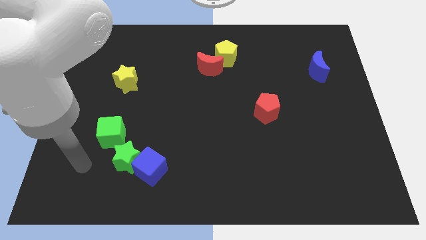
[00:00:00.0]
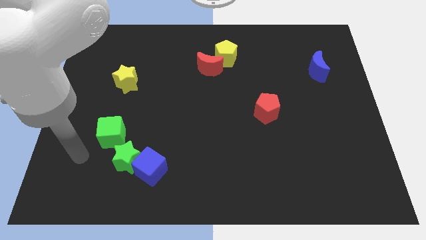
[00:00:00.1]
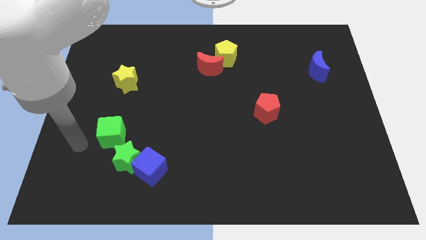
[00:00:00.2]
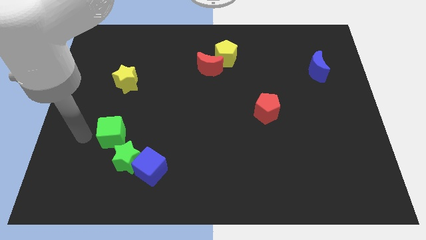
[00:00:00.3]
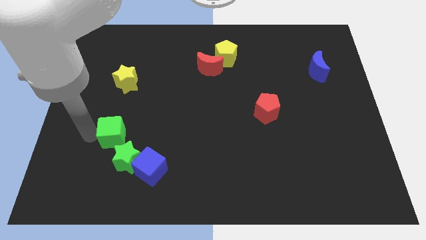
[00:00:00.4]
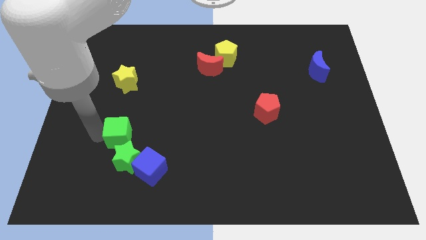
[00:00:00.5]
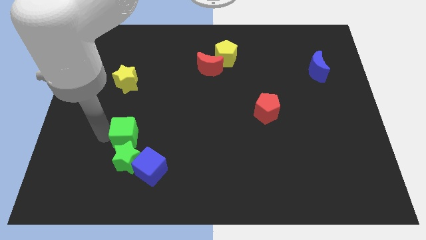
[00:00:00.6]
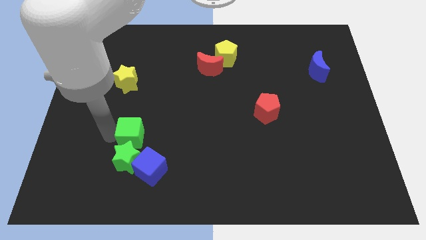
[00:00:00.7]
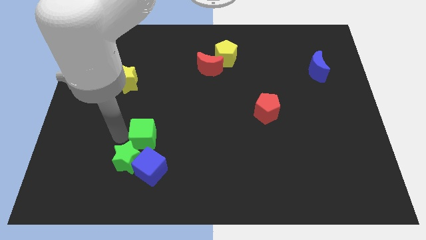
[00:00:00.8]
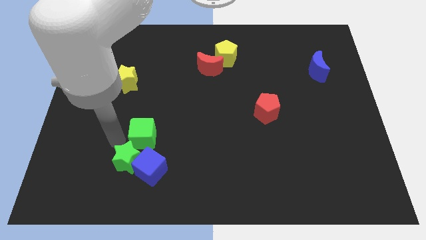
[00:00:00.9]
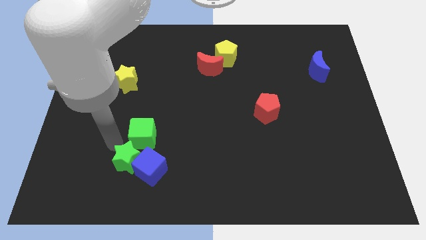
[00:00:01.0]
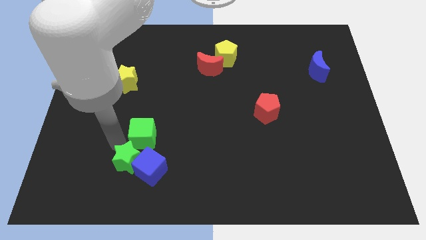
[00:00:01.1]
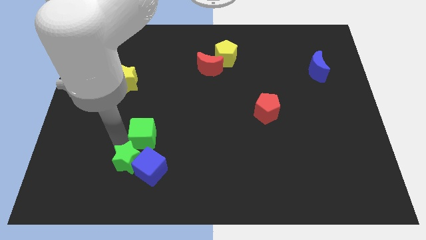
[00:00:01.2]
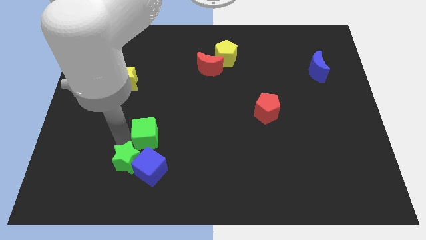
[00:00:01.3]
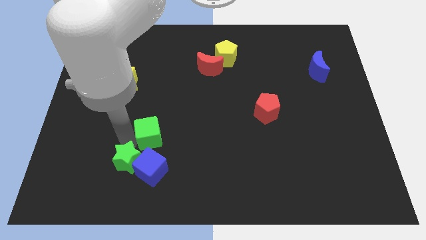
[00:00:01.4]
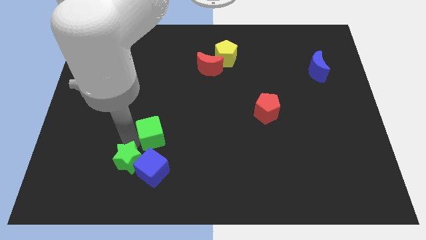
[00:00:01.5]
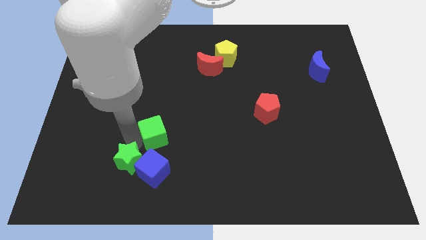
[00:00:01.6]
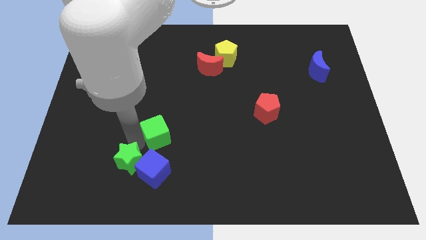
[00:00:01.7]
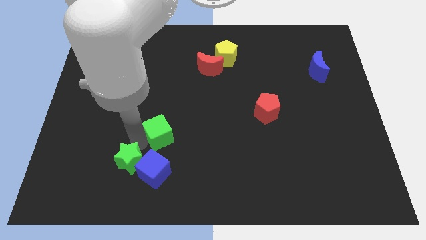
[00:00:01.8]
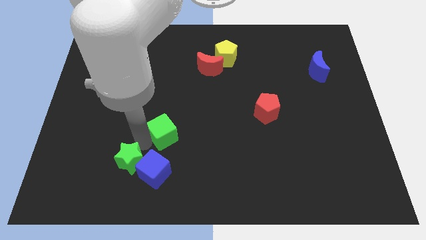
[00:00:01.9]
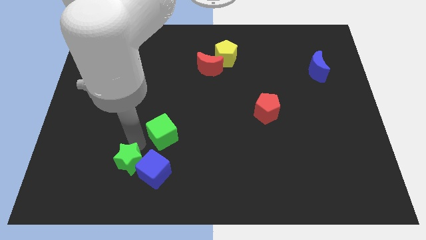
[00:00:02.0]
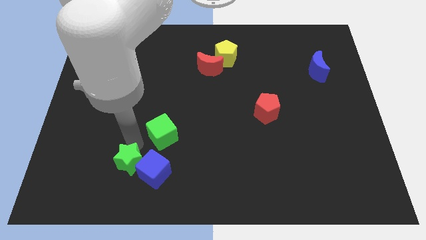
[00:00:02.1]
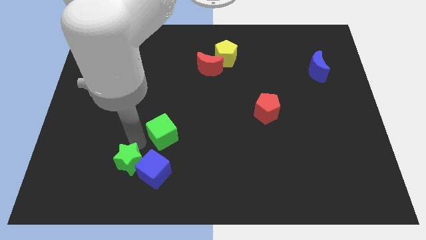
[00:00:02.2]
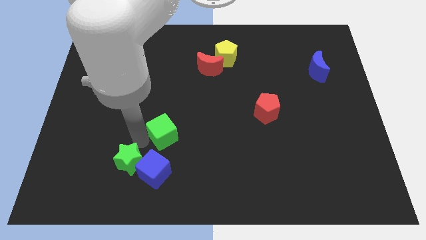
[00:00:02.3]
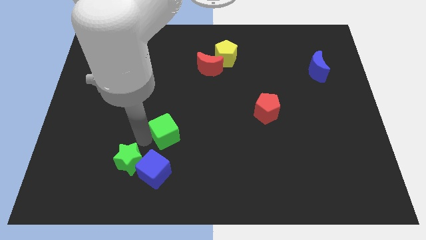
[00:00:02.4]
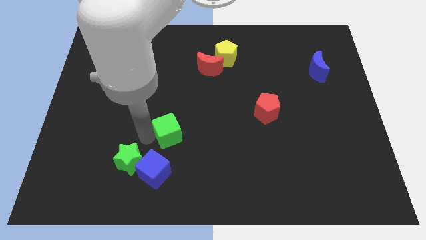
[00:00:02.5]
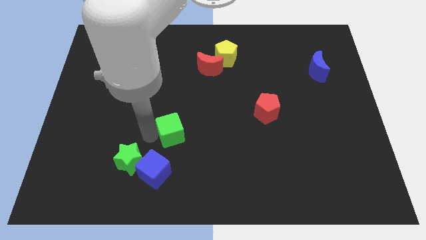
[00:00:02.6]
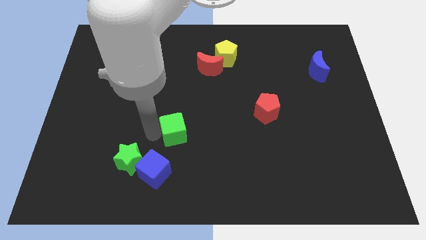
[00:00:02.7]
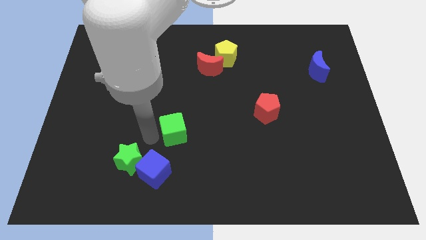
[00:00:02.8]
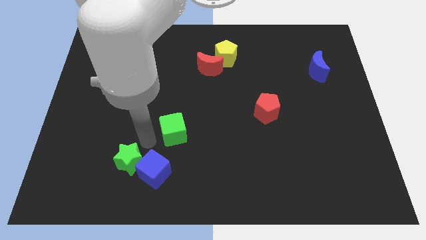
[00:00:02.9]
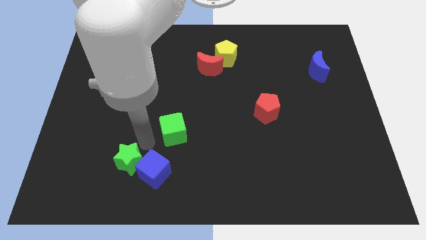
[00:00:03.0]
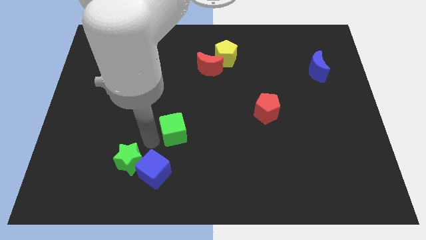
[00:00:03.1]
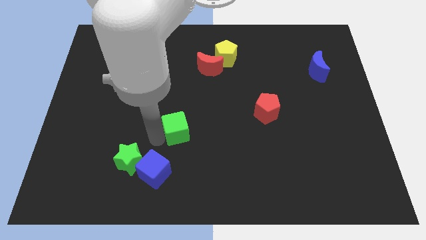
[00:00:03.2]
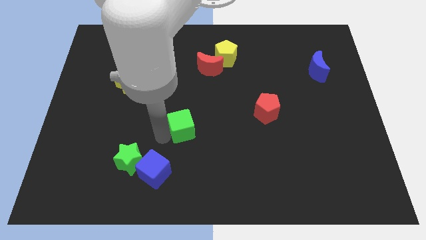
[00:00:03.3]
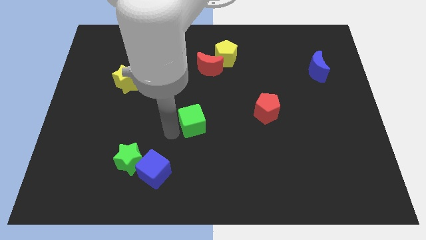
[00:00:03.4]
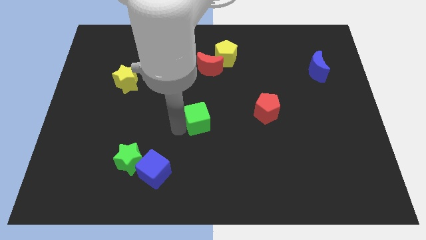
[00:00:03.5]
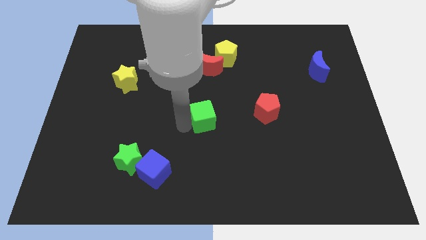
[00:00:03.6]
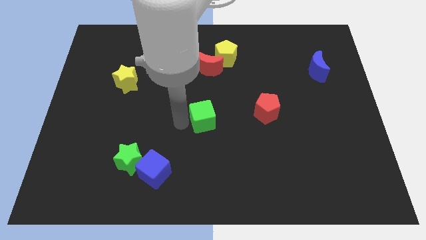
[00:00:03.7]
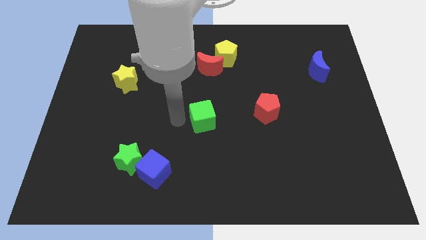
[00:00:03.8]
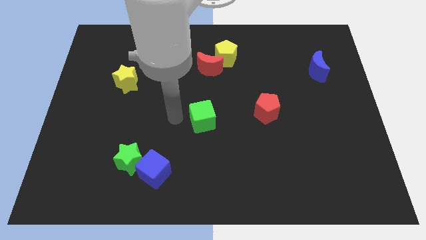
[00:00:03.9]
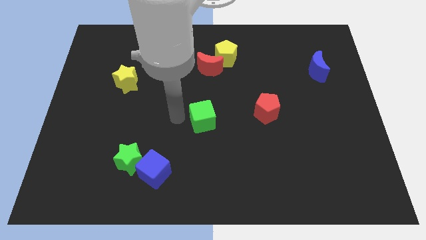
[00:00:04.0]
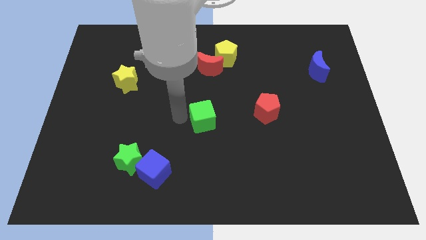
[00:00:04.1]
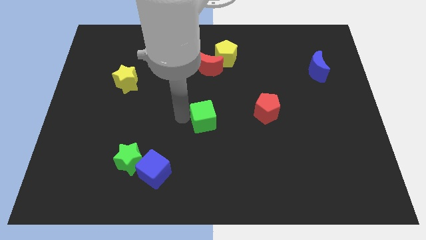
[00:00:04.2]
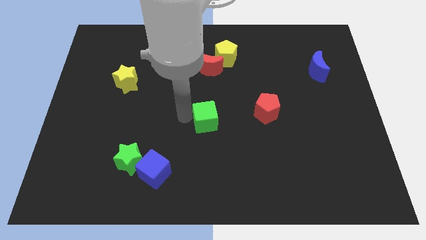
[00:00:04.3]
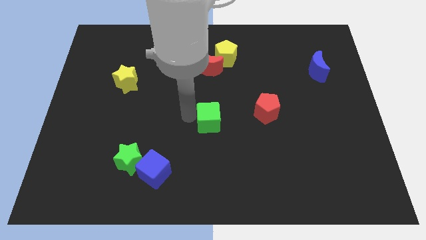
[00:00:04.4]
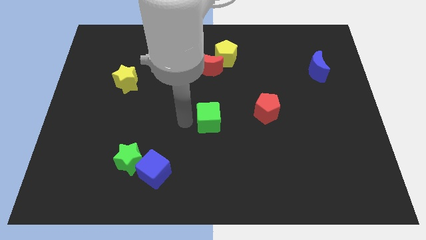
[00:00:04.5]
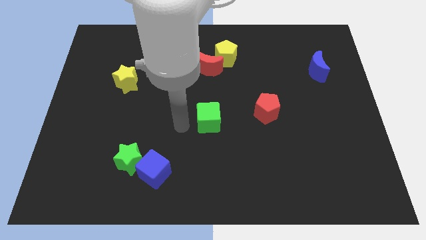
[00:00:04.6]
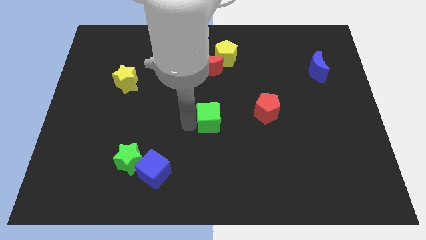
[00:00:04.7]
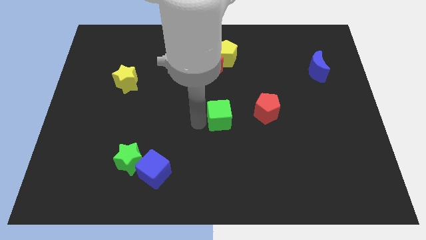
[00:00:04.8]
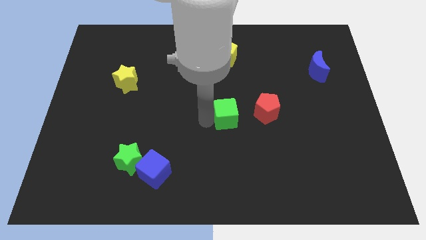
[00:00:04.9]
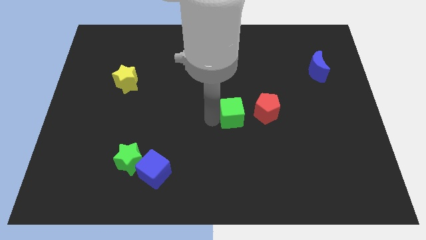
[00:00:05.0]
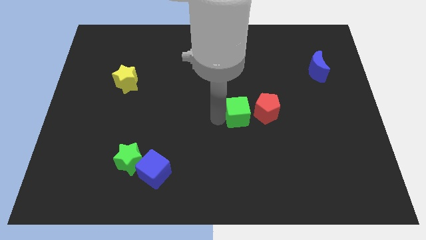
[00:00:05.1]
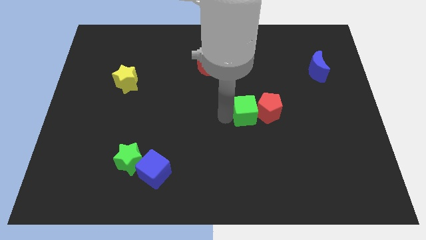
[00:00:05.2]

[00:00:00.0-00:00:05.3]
slide the green cube to the red pentagon

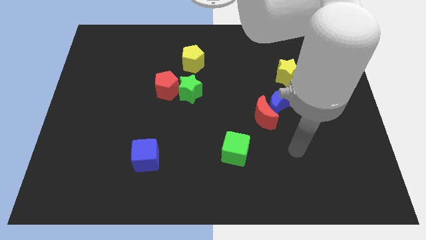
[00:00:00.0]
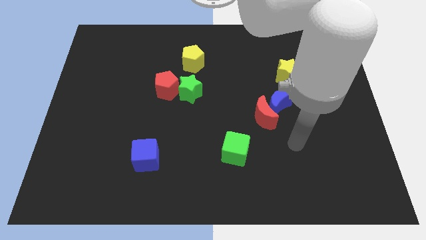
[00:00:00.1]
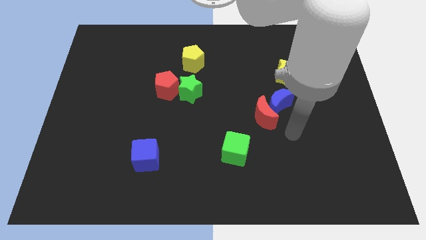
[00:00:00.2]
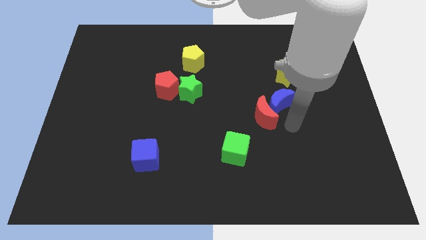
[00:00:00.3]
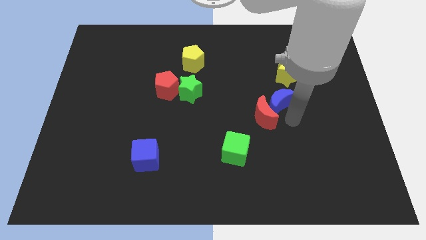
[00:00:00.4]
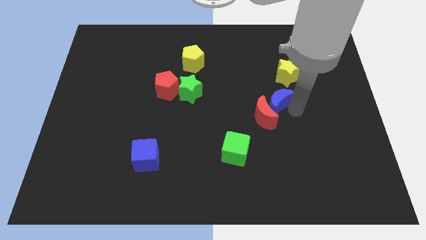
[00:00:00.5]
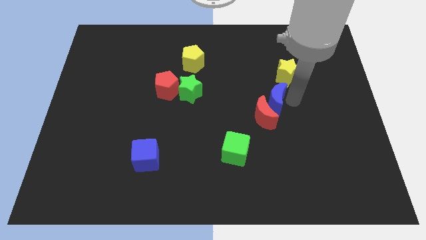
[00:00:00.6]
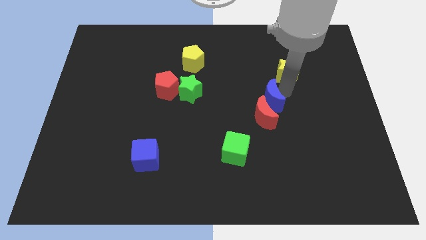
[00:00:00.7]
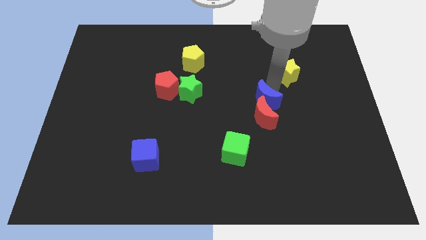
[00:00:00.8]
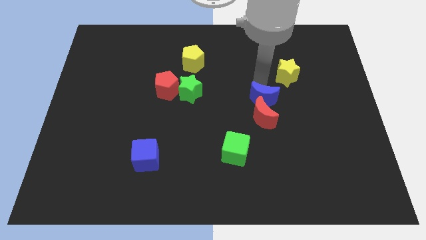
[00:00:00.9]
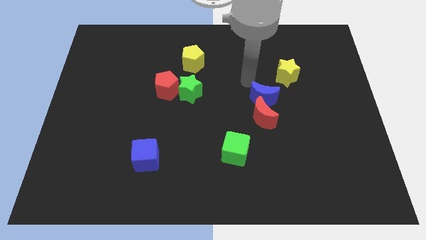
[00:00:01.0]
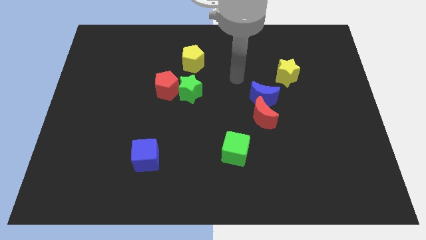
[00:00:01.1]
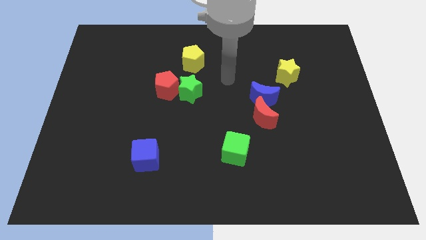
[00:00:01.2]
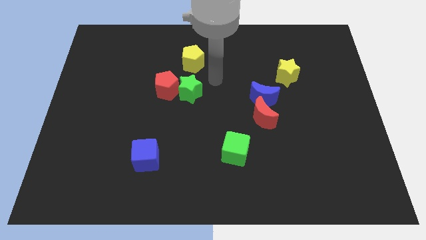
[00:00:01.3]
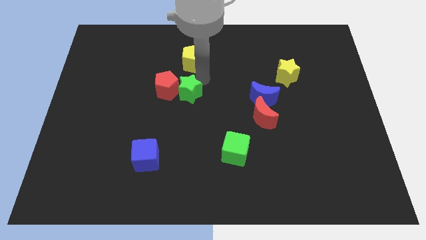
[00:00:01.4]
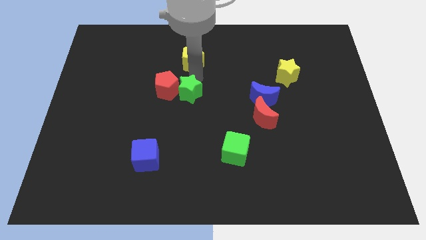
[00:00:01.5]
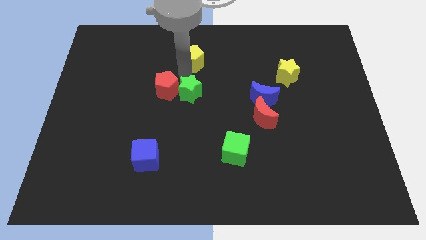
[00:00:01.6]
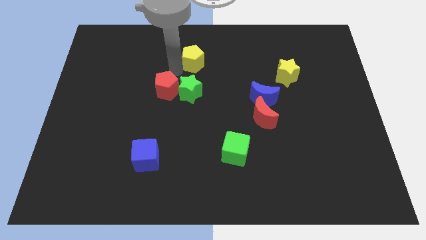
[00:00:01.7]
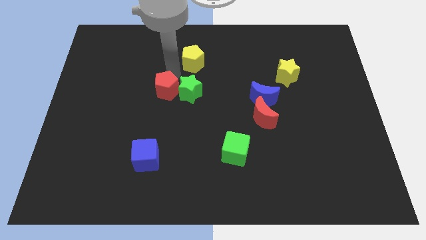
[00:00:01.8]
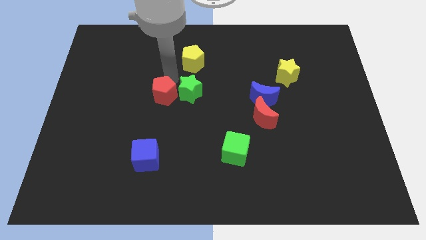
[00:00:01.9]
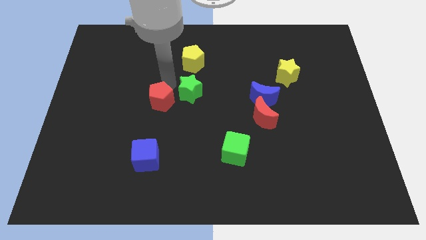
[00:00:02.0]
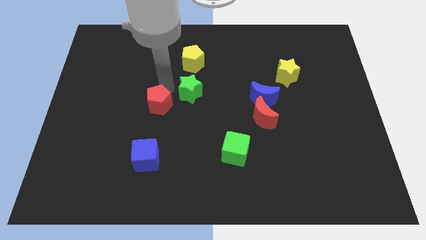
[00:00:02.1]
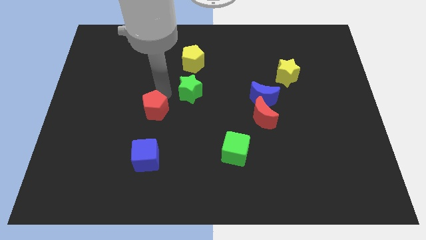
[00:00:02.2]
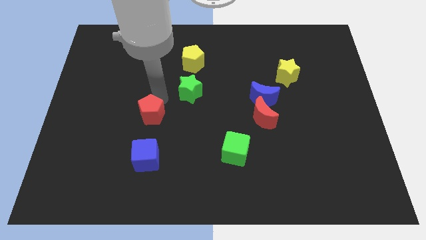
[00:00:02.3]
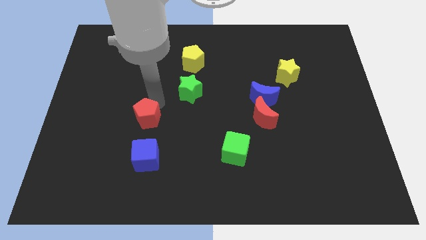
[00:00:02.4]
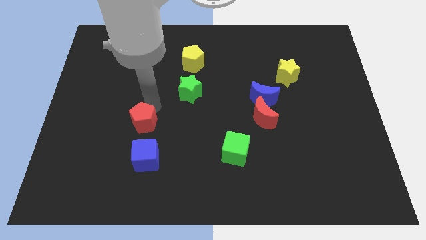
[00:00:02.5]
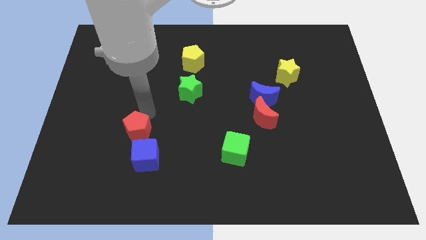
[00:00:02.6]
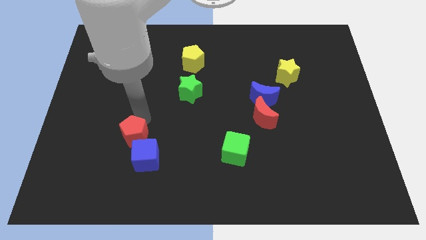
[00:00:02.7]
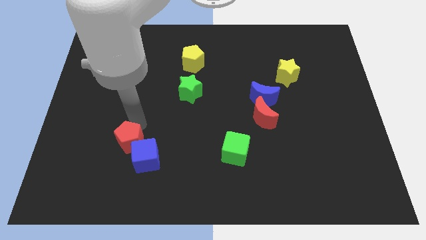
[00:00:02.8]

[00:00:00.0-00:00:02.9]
push the red pentagon to the blue cube
